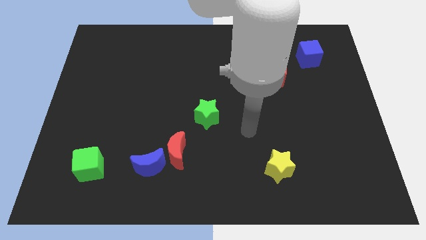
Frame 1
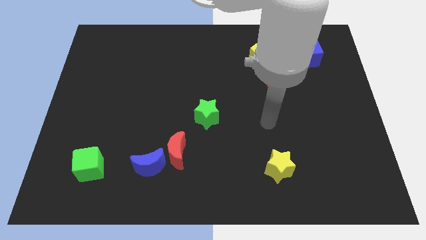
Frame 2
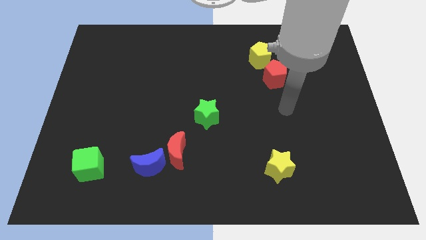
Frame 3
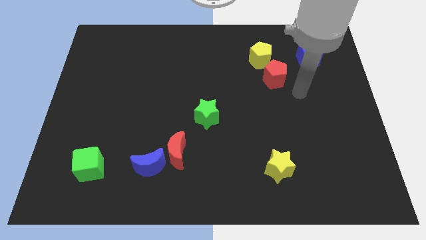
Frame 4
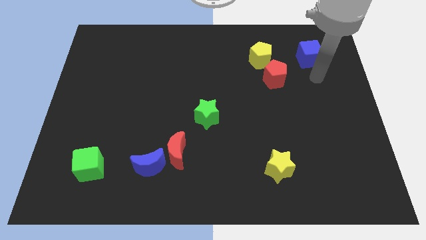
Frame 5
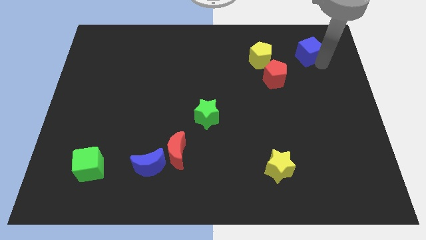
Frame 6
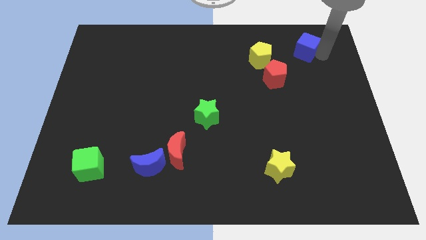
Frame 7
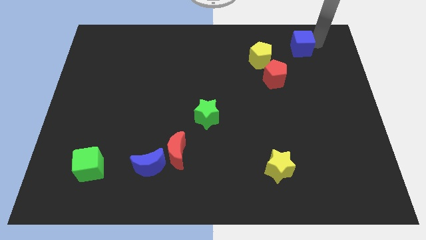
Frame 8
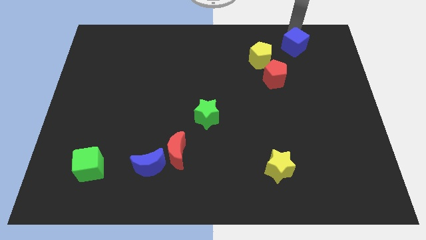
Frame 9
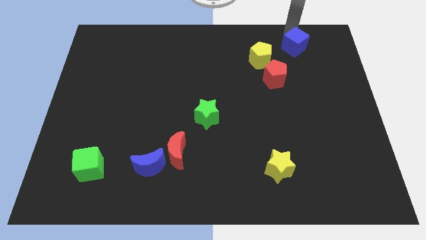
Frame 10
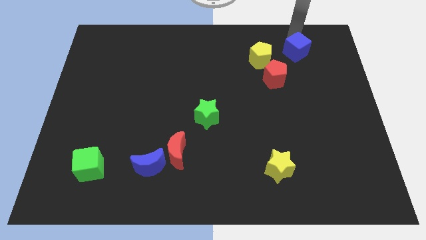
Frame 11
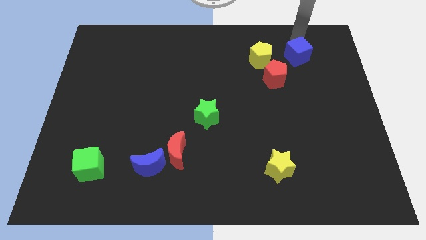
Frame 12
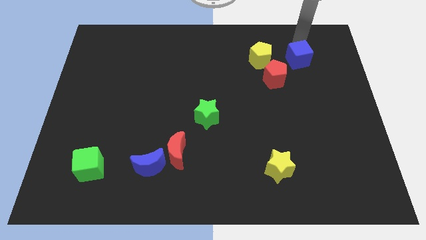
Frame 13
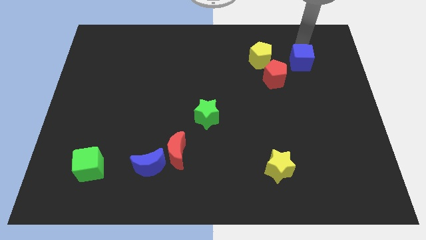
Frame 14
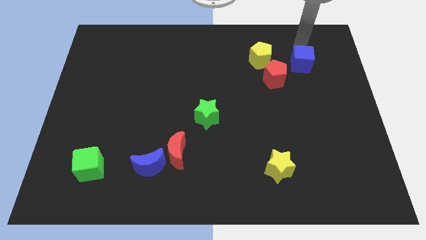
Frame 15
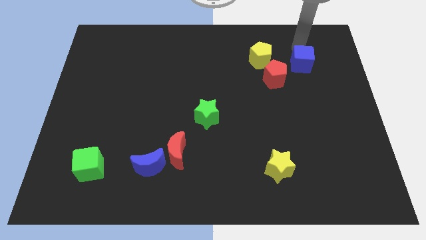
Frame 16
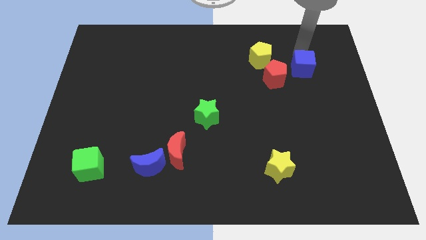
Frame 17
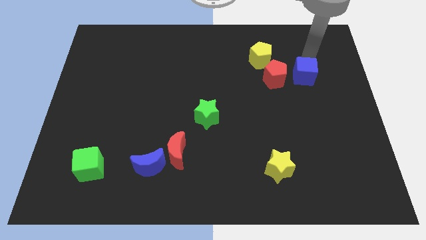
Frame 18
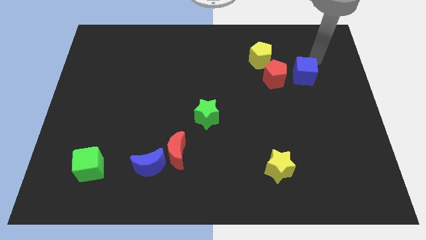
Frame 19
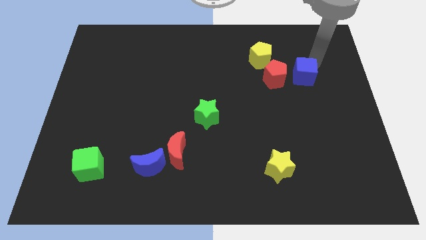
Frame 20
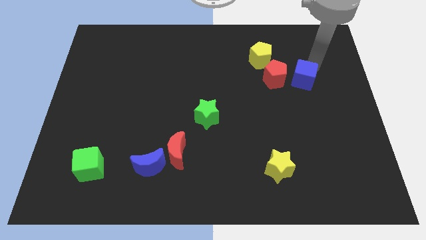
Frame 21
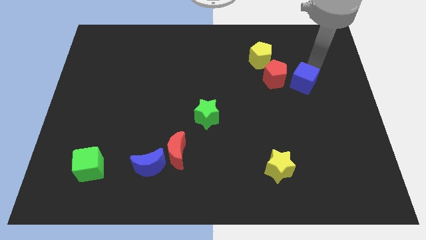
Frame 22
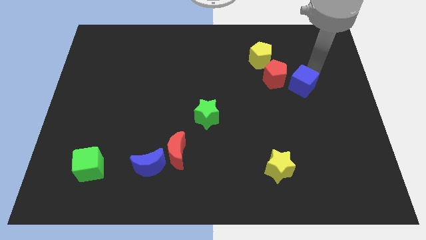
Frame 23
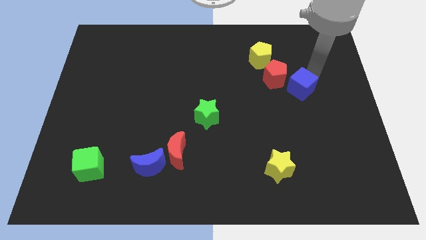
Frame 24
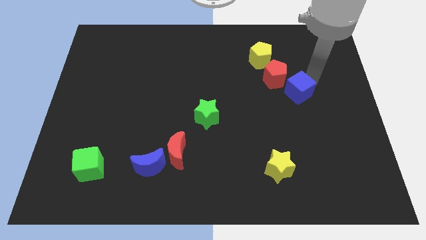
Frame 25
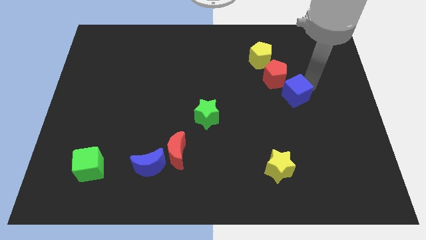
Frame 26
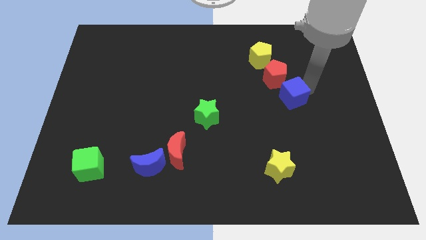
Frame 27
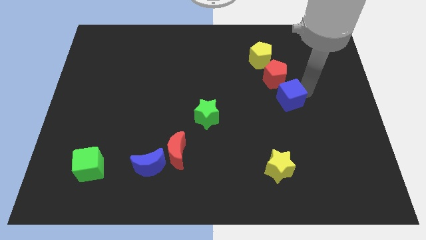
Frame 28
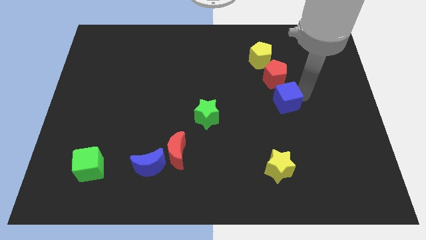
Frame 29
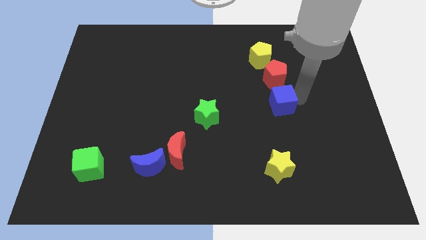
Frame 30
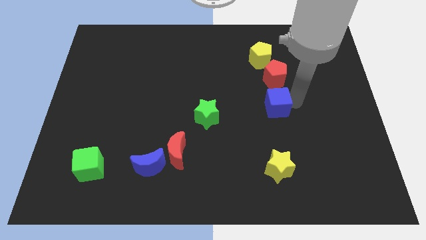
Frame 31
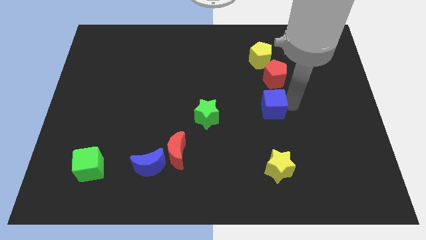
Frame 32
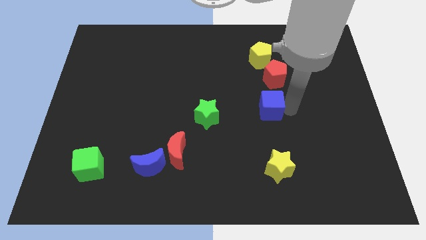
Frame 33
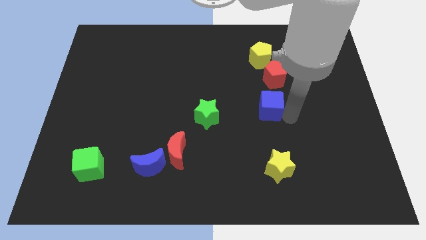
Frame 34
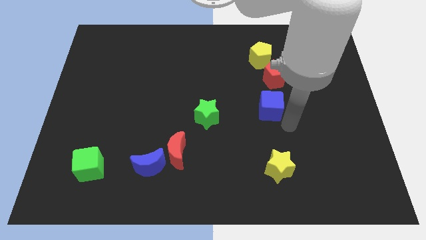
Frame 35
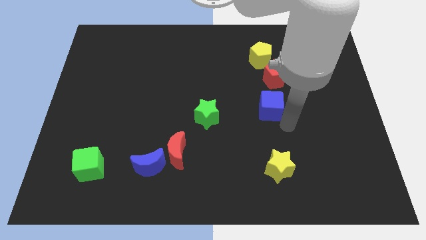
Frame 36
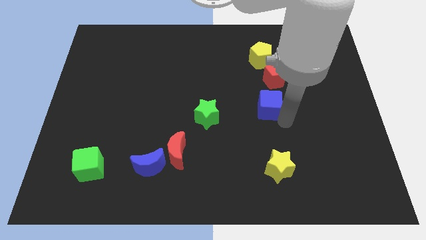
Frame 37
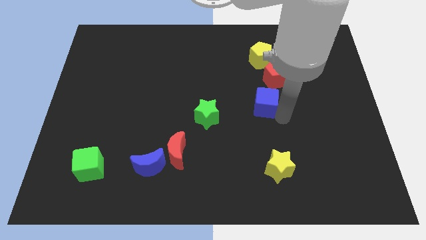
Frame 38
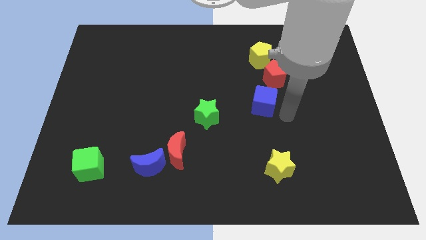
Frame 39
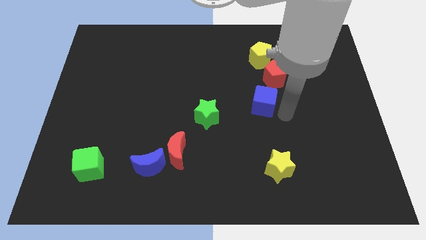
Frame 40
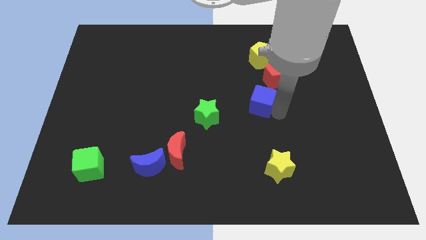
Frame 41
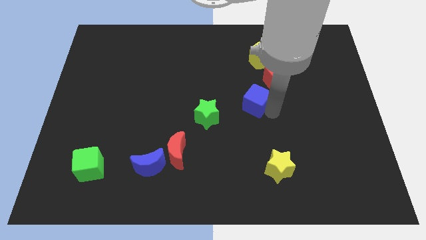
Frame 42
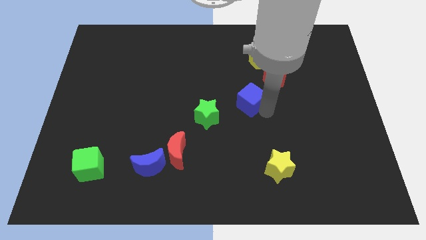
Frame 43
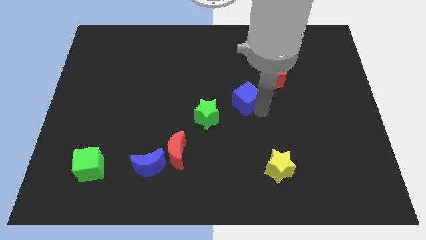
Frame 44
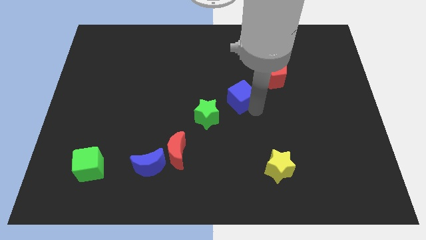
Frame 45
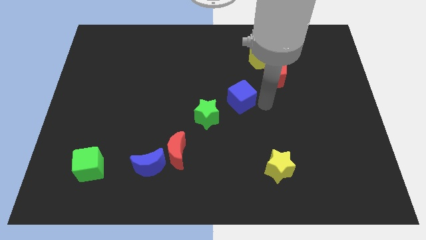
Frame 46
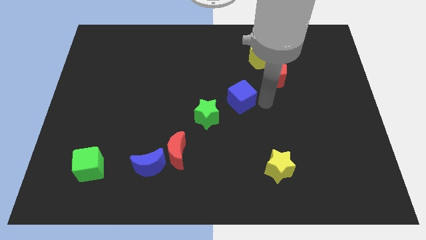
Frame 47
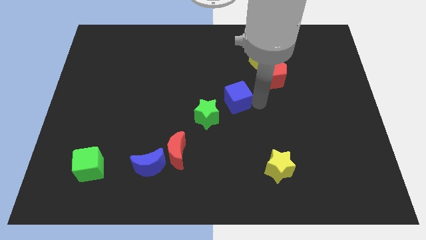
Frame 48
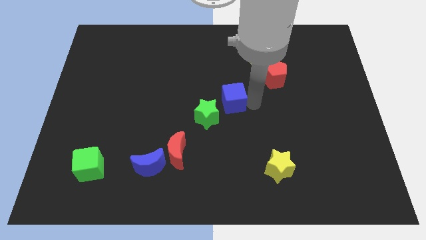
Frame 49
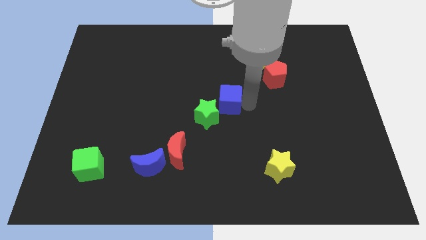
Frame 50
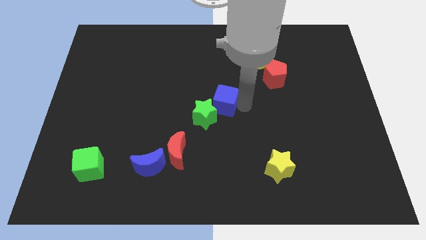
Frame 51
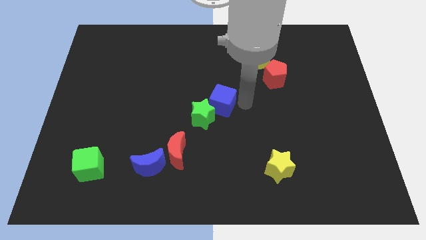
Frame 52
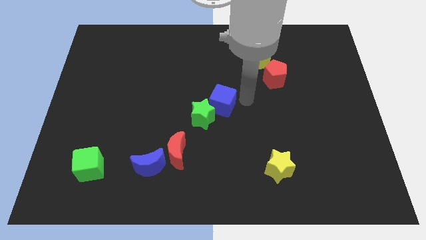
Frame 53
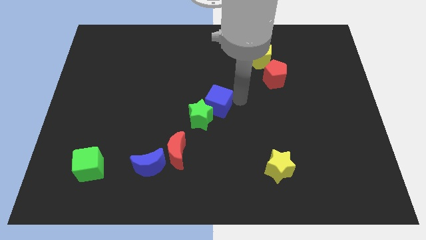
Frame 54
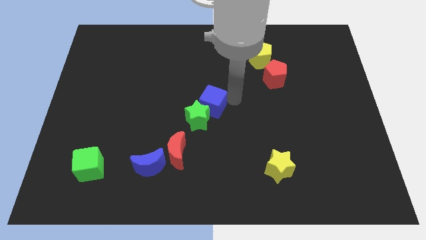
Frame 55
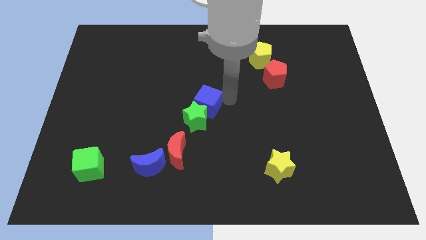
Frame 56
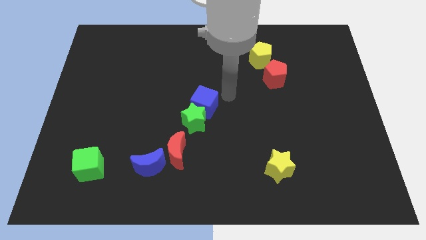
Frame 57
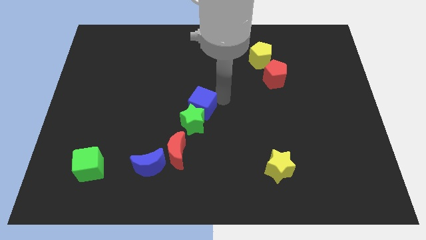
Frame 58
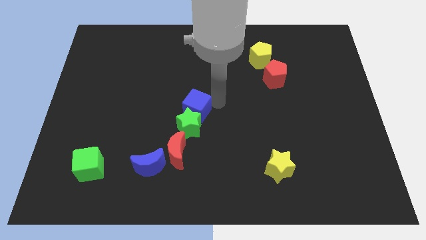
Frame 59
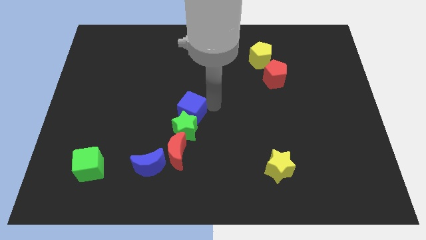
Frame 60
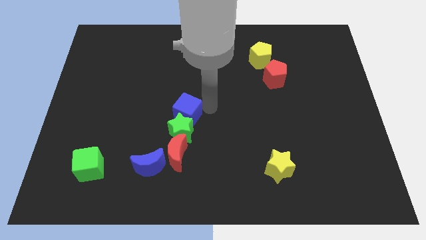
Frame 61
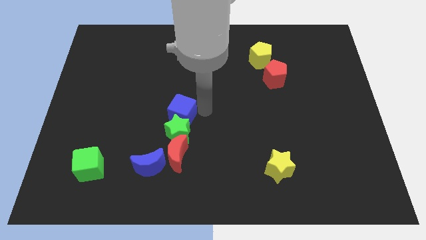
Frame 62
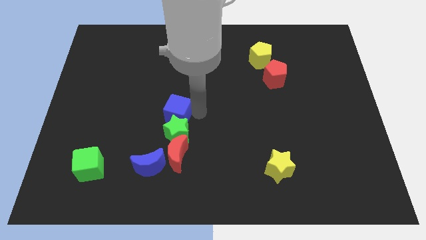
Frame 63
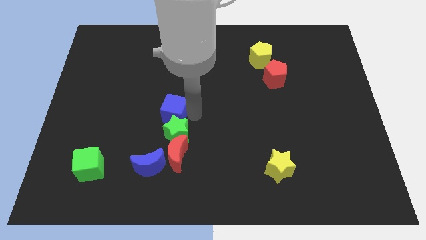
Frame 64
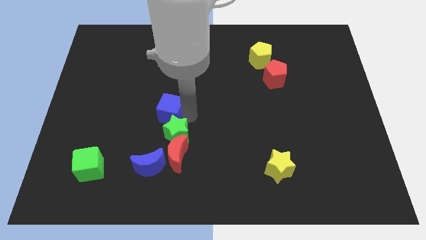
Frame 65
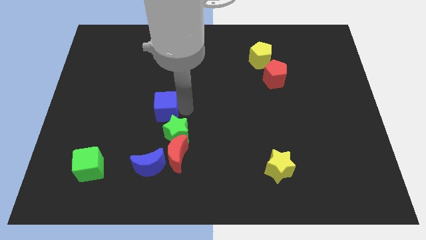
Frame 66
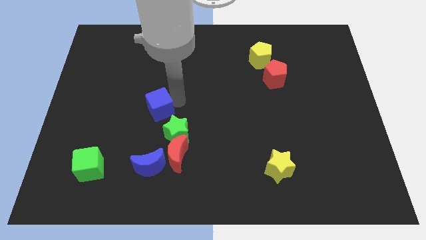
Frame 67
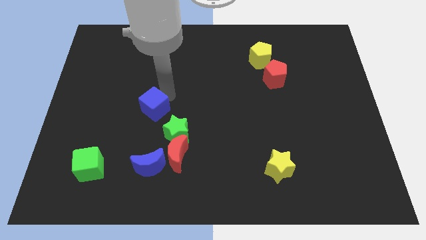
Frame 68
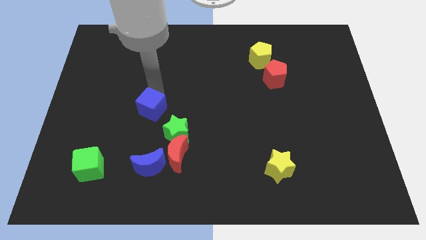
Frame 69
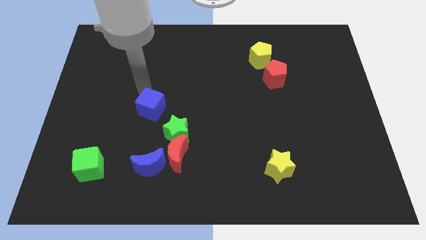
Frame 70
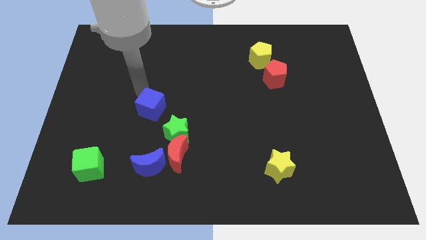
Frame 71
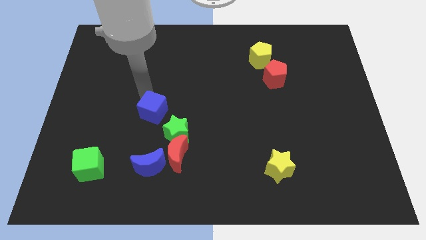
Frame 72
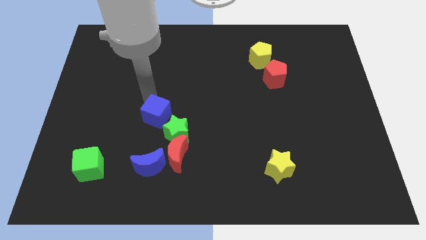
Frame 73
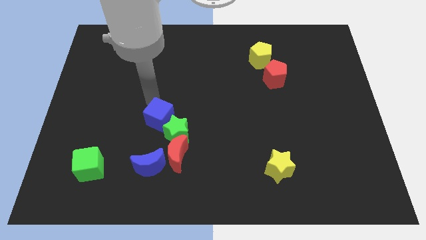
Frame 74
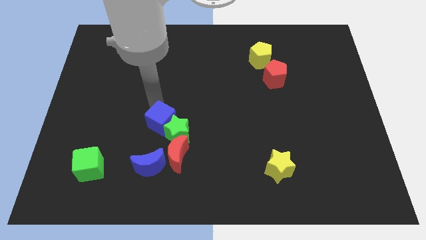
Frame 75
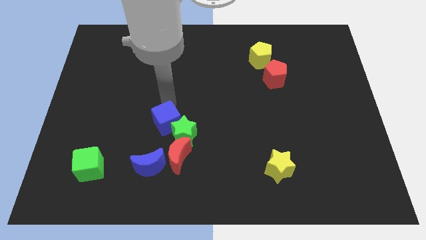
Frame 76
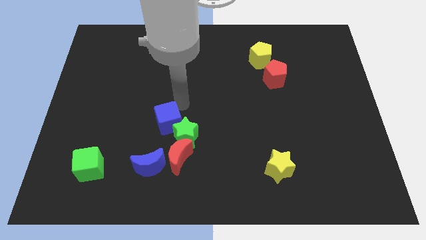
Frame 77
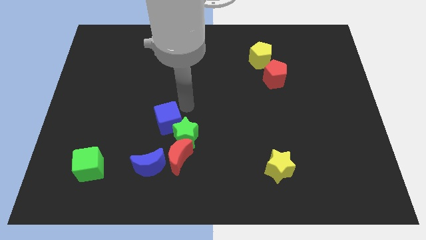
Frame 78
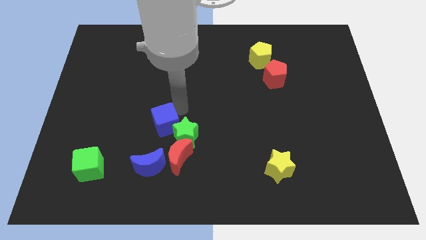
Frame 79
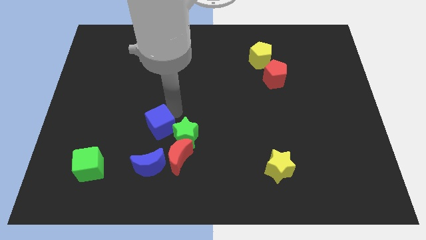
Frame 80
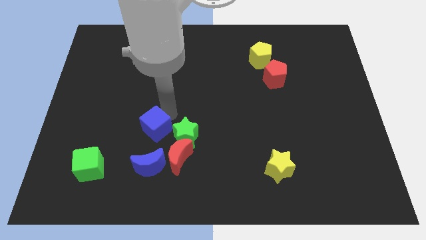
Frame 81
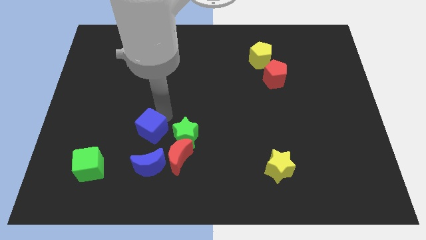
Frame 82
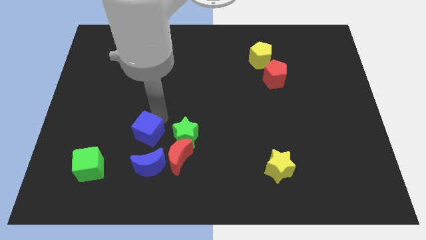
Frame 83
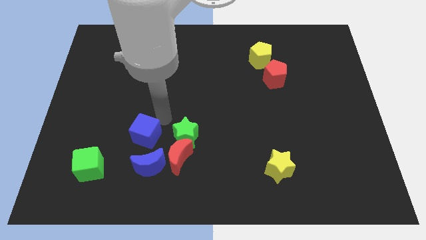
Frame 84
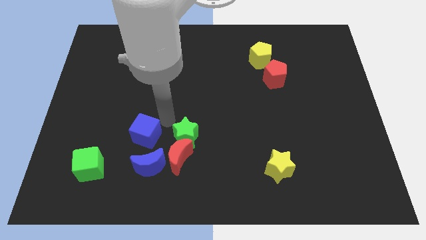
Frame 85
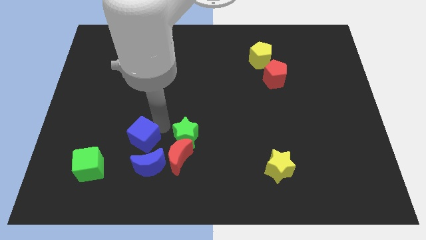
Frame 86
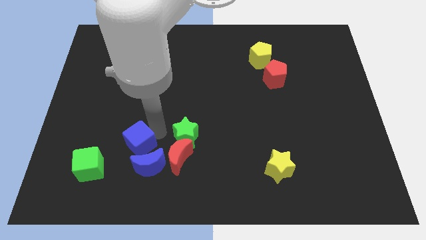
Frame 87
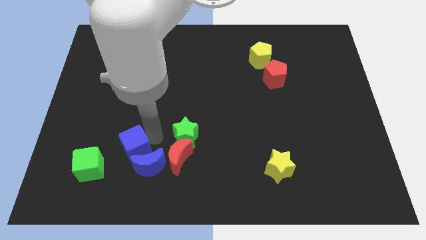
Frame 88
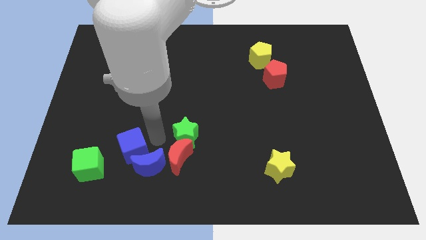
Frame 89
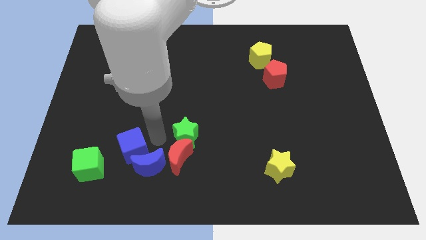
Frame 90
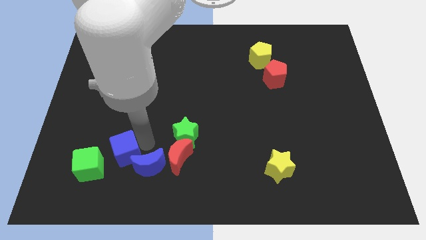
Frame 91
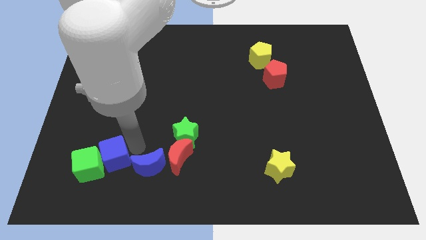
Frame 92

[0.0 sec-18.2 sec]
push the blue cube next to the green cube
